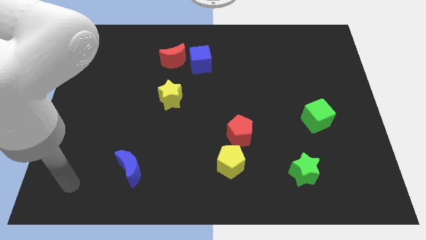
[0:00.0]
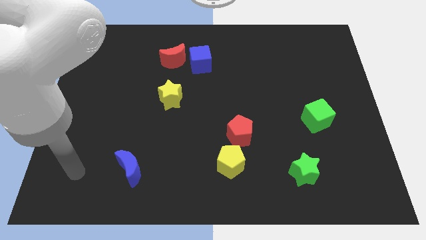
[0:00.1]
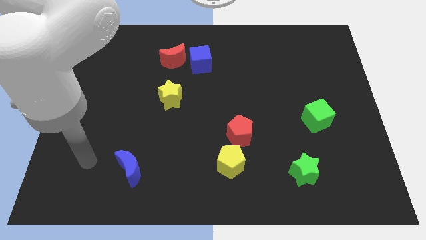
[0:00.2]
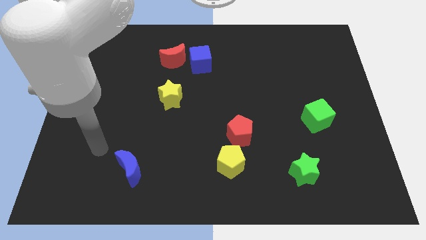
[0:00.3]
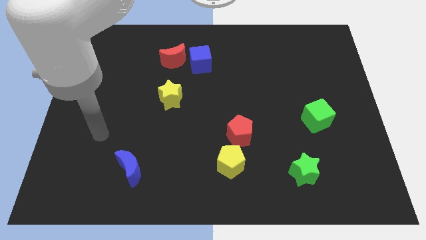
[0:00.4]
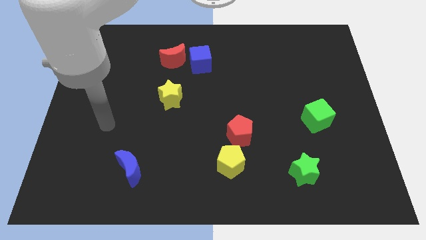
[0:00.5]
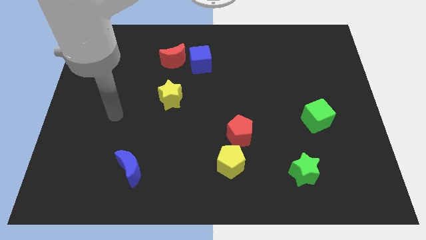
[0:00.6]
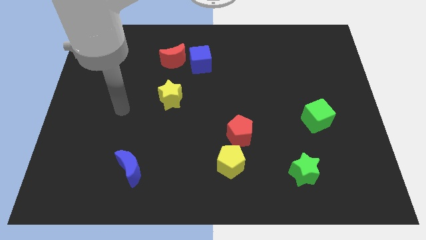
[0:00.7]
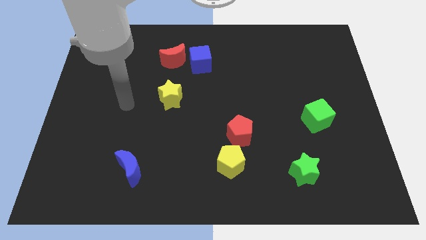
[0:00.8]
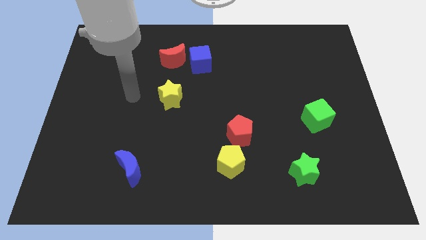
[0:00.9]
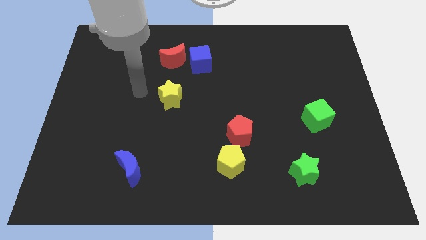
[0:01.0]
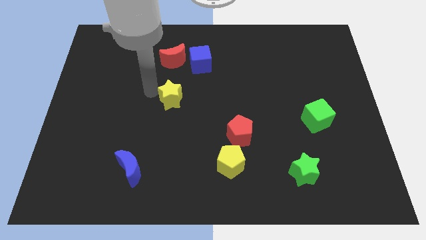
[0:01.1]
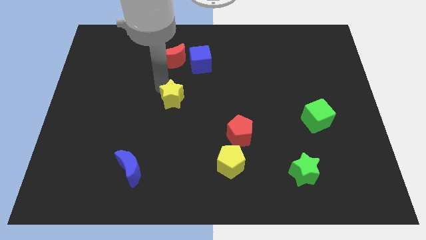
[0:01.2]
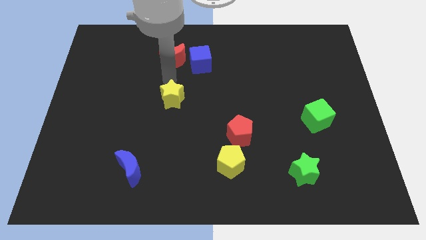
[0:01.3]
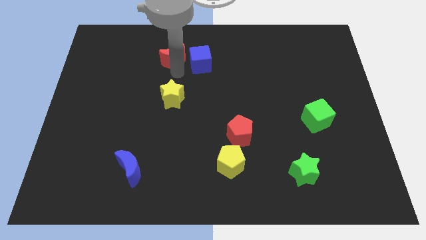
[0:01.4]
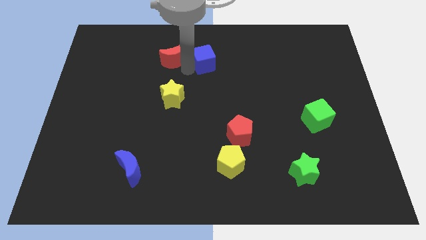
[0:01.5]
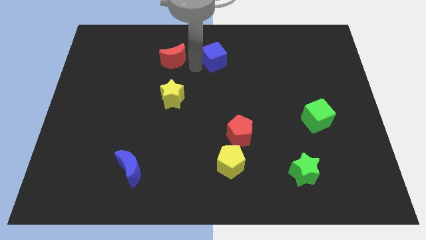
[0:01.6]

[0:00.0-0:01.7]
pull the red moon apart from the blue cube

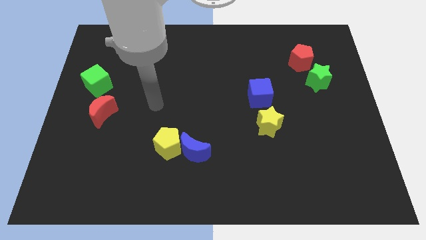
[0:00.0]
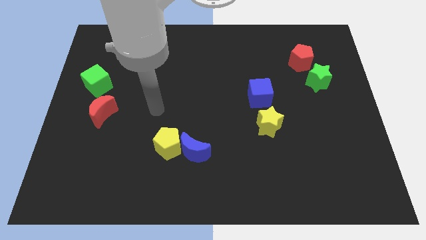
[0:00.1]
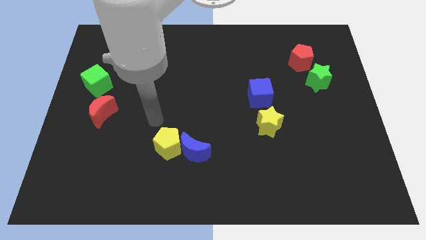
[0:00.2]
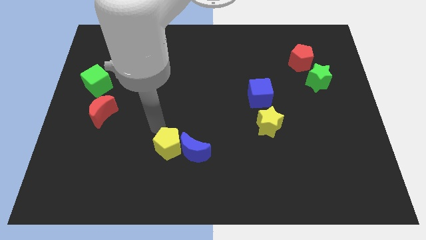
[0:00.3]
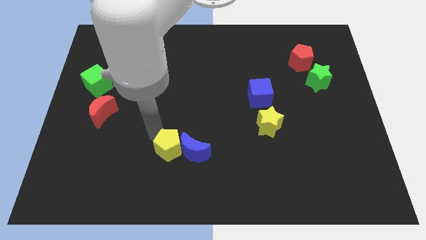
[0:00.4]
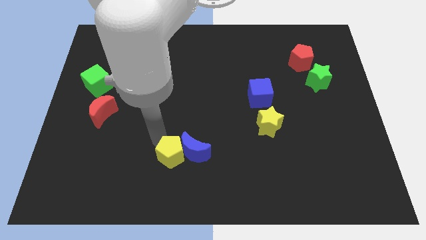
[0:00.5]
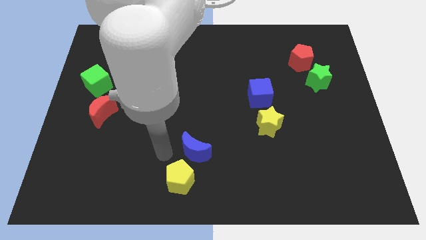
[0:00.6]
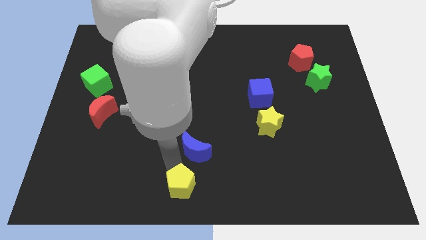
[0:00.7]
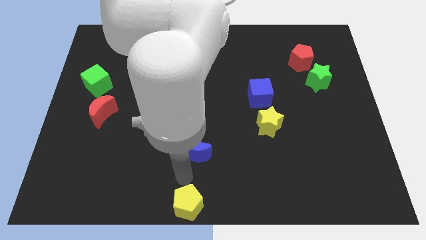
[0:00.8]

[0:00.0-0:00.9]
separate the blue moon from the yellow pentagon
